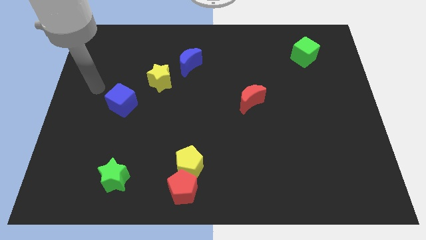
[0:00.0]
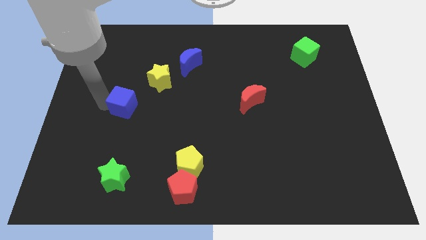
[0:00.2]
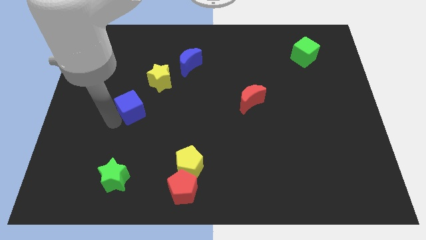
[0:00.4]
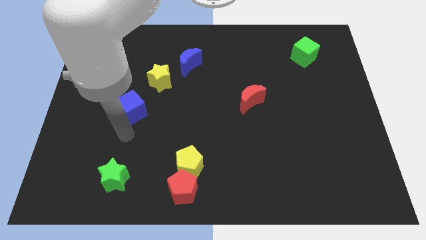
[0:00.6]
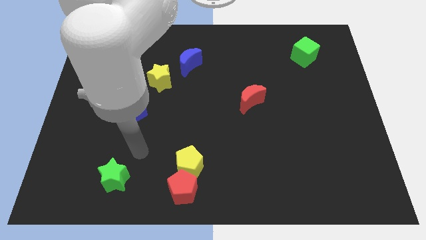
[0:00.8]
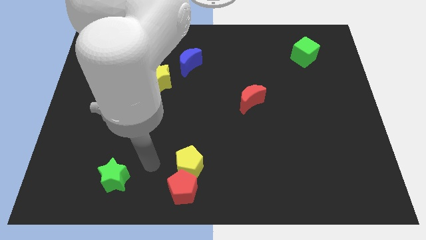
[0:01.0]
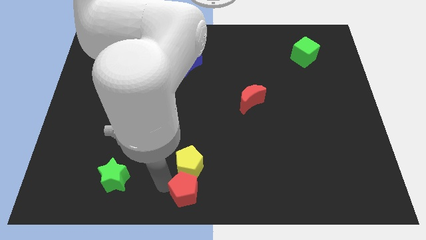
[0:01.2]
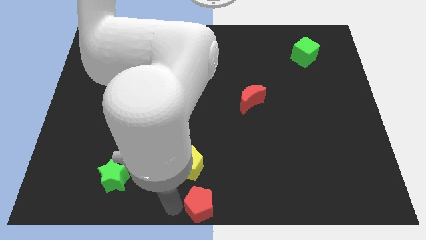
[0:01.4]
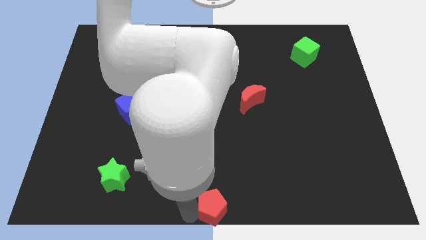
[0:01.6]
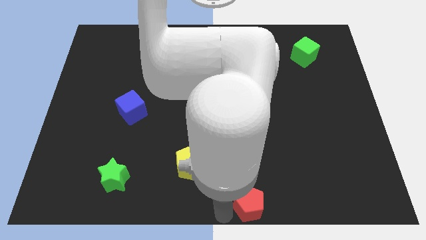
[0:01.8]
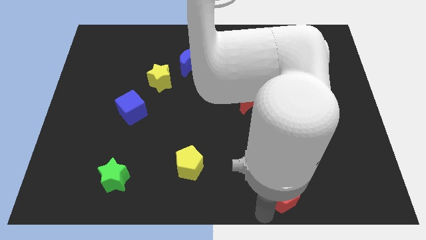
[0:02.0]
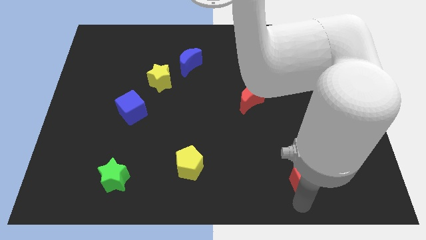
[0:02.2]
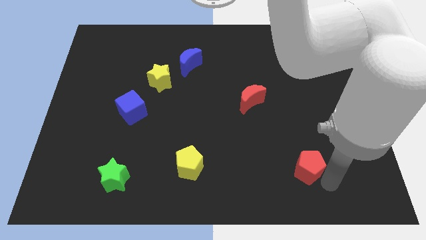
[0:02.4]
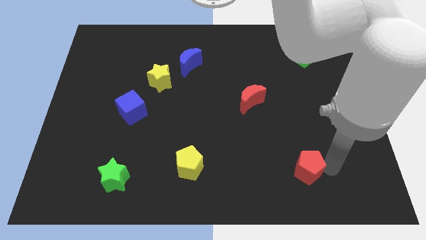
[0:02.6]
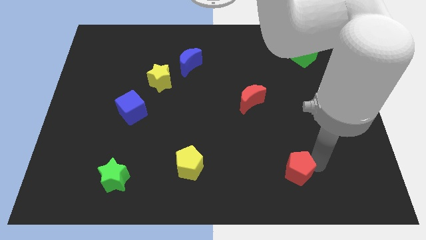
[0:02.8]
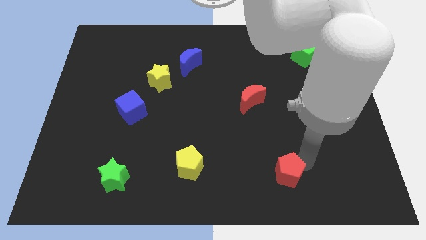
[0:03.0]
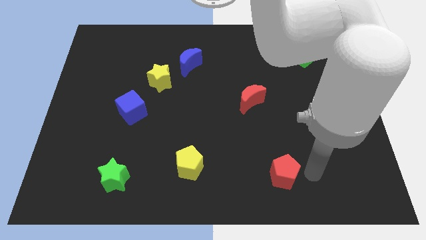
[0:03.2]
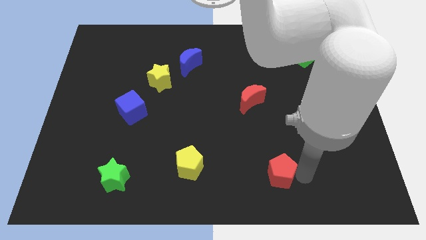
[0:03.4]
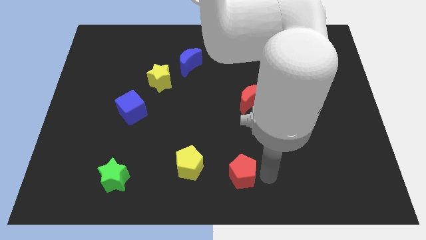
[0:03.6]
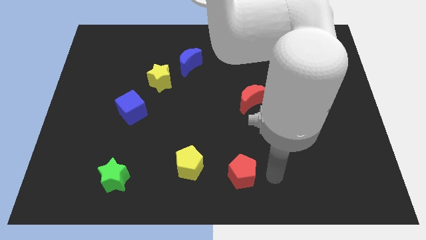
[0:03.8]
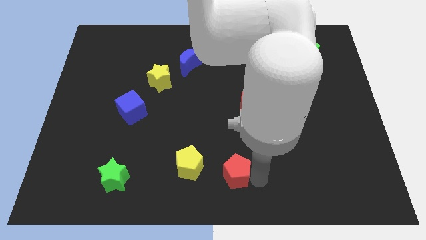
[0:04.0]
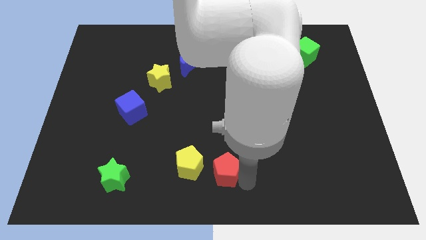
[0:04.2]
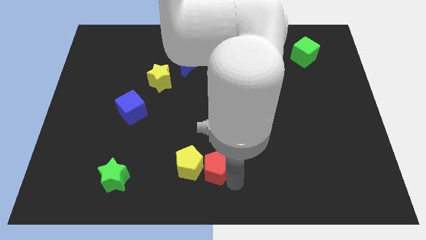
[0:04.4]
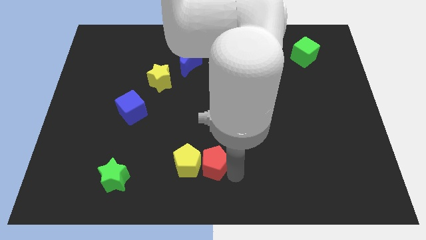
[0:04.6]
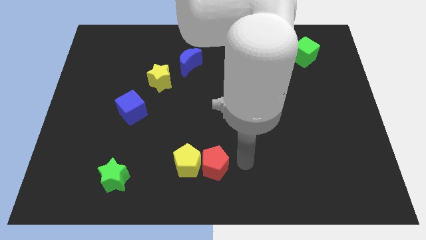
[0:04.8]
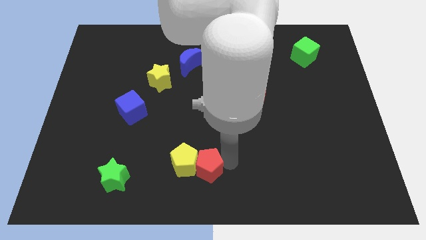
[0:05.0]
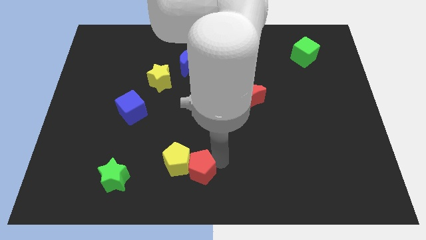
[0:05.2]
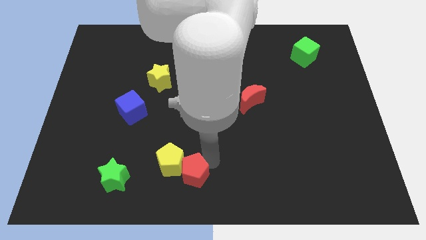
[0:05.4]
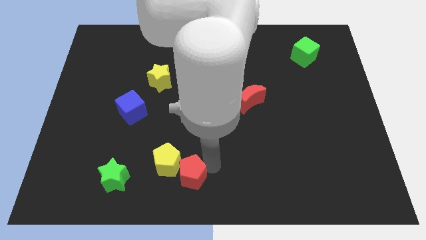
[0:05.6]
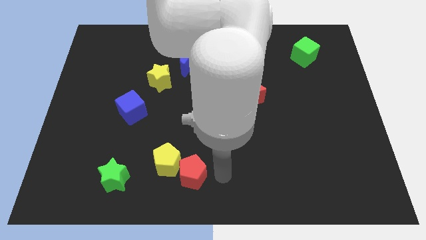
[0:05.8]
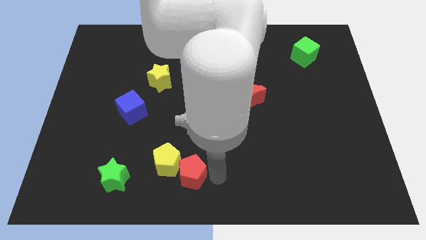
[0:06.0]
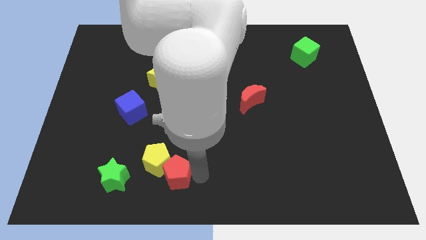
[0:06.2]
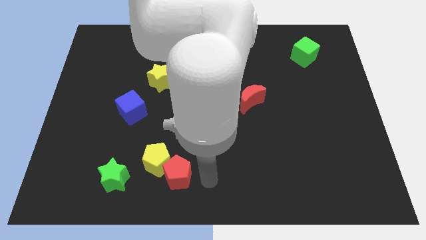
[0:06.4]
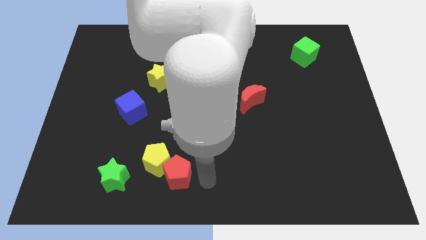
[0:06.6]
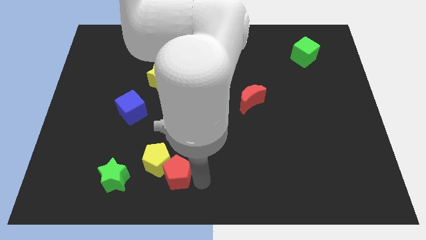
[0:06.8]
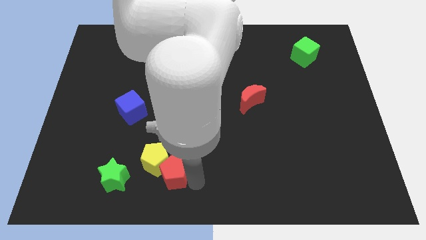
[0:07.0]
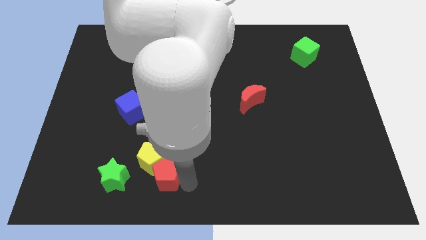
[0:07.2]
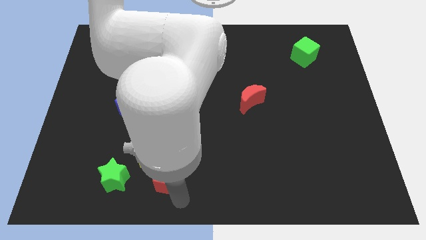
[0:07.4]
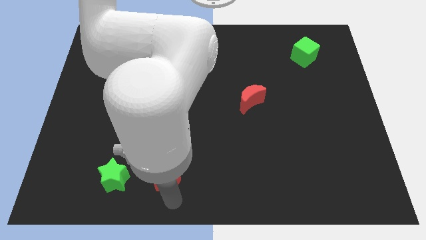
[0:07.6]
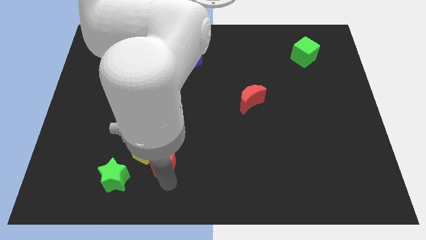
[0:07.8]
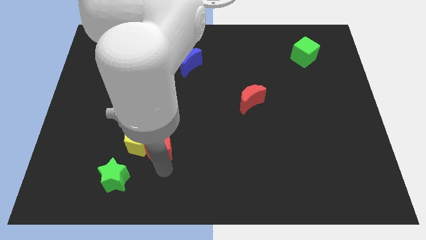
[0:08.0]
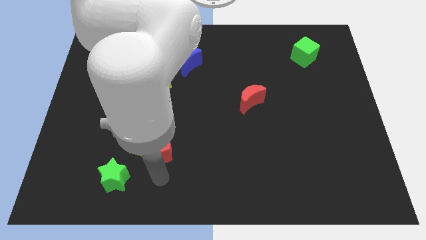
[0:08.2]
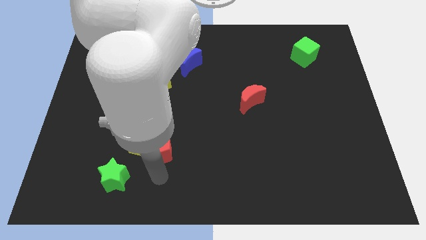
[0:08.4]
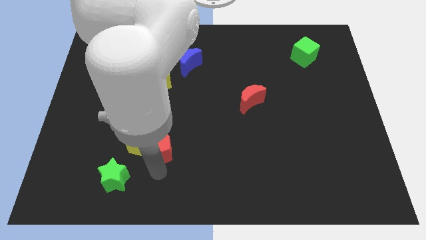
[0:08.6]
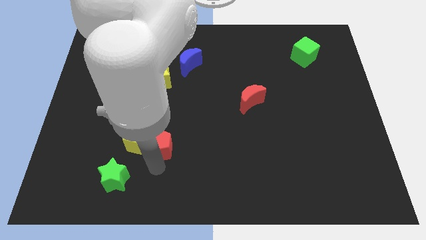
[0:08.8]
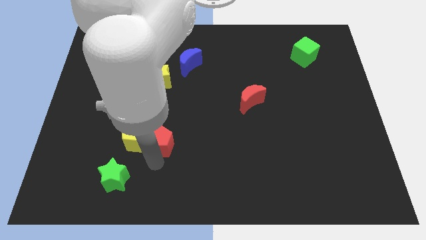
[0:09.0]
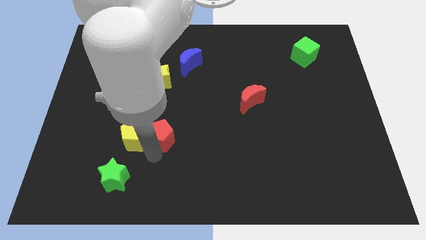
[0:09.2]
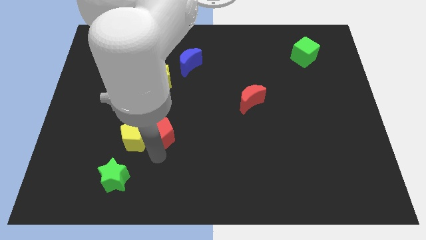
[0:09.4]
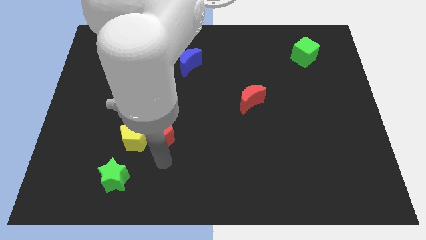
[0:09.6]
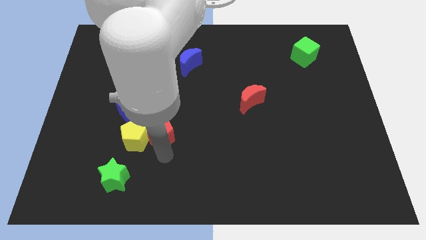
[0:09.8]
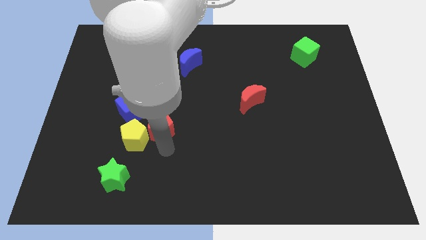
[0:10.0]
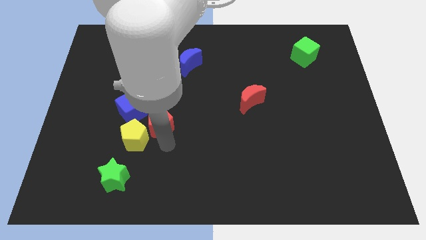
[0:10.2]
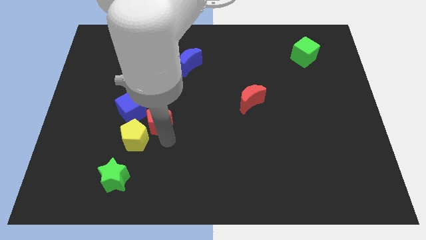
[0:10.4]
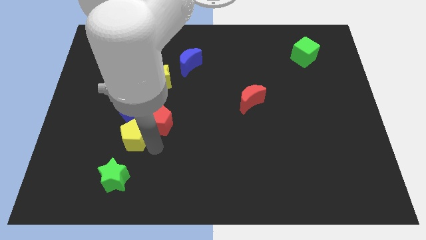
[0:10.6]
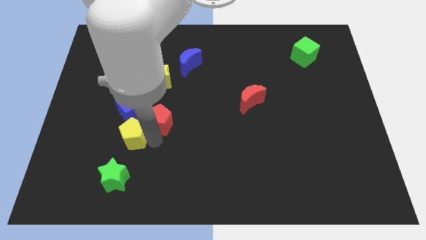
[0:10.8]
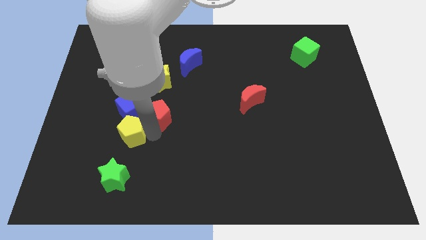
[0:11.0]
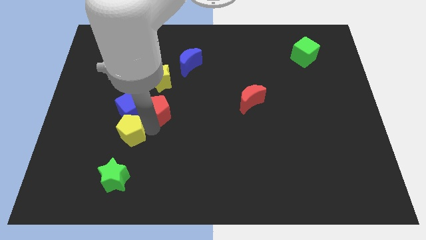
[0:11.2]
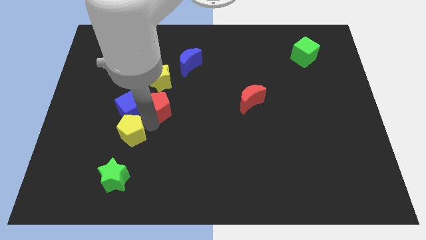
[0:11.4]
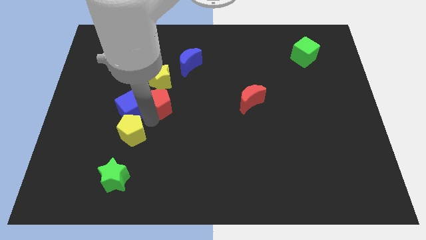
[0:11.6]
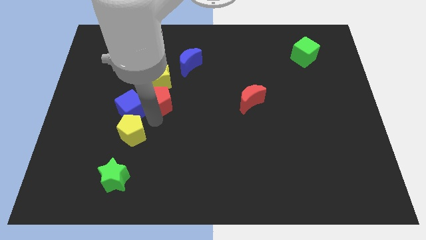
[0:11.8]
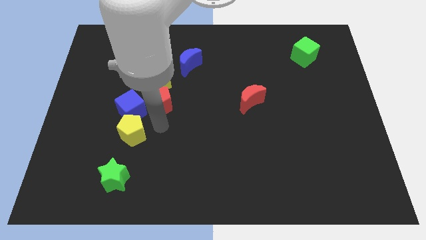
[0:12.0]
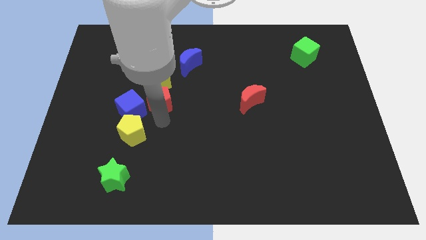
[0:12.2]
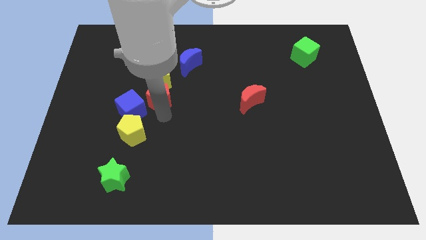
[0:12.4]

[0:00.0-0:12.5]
push the red pentagon next to the yellow star

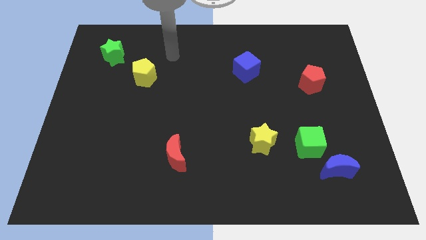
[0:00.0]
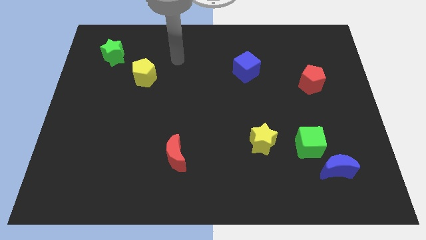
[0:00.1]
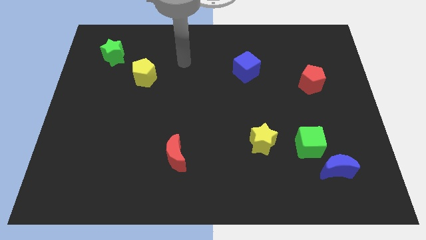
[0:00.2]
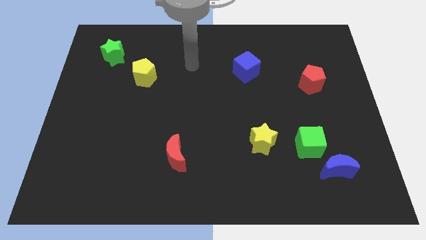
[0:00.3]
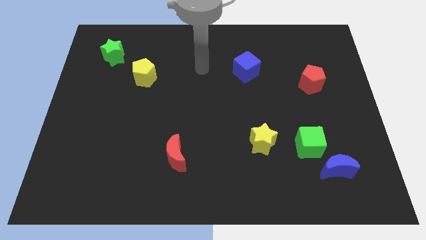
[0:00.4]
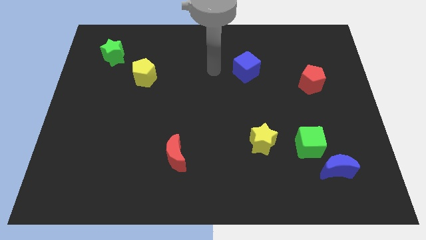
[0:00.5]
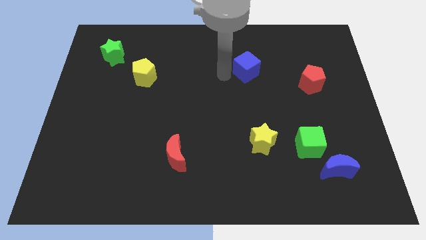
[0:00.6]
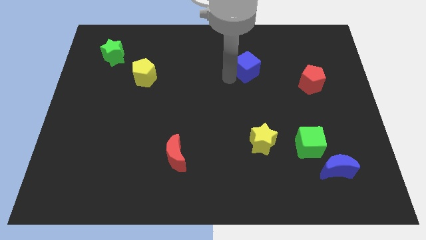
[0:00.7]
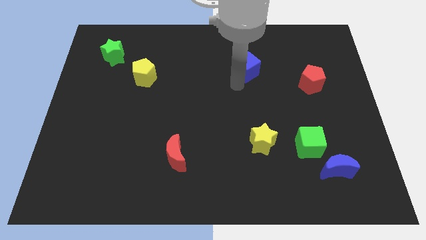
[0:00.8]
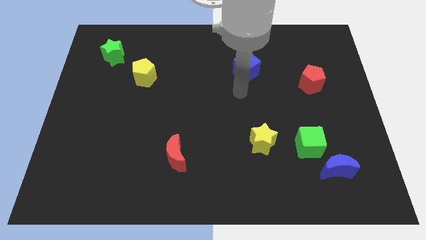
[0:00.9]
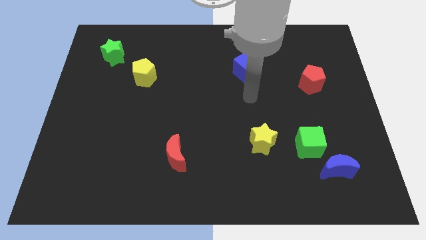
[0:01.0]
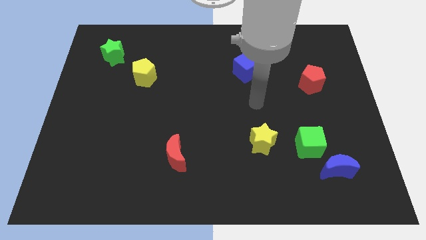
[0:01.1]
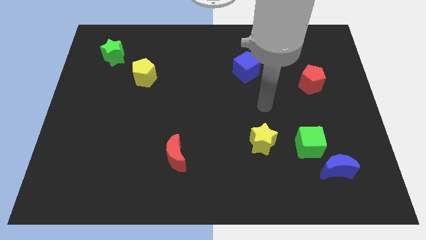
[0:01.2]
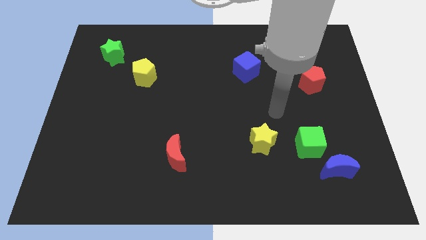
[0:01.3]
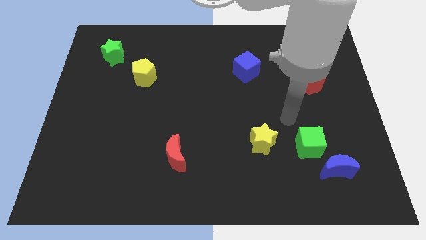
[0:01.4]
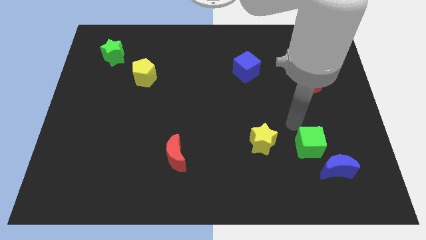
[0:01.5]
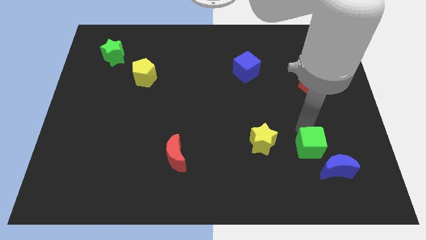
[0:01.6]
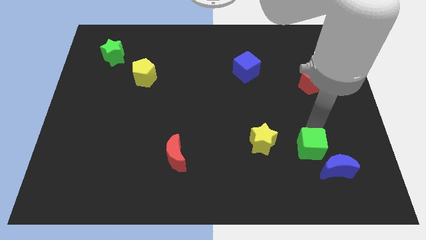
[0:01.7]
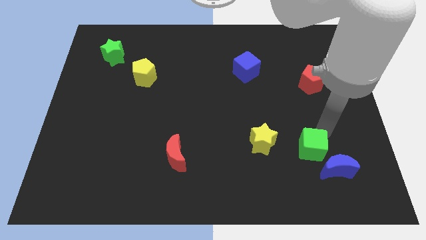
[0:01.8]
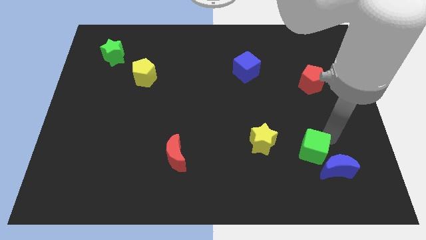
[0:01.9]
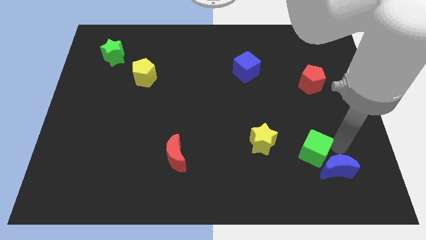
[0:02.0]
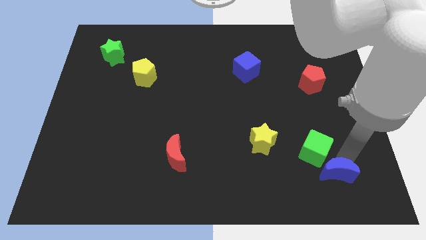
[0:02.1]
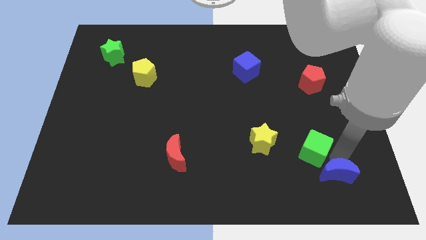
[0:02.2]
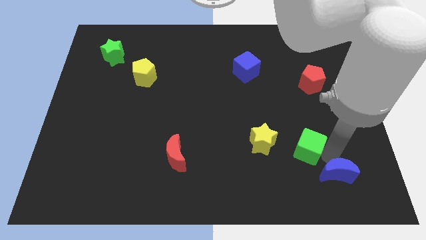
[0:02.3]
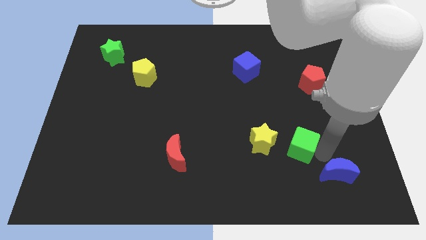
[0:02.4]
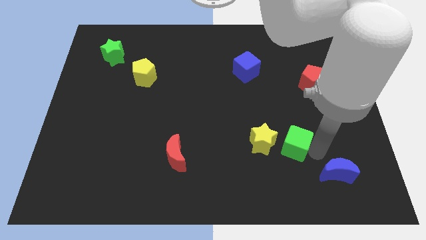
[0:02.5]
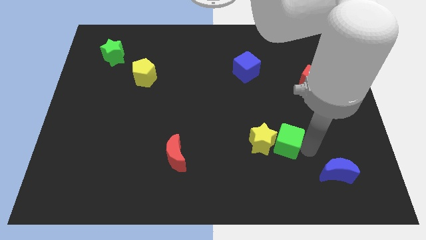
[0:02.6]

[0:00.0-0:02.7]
slide the green cube to the yellow star
